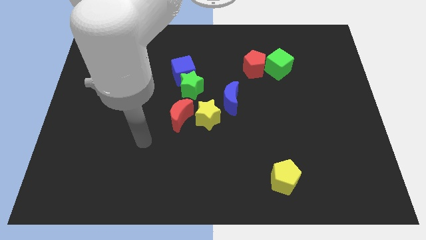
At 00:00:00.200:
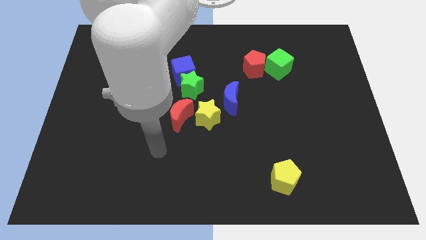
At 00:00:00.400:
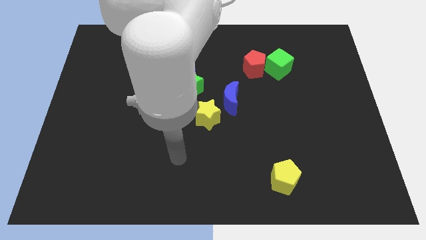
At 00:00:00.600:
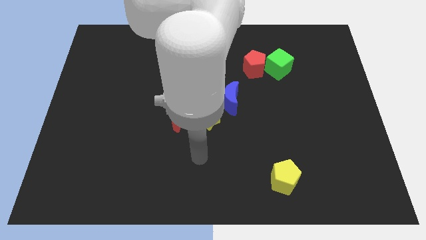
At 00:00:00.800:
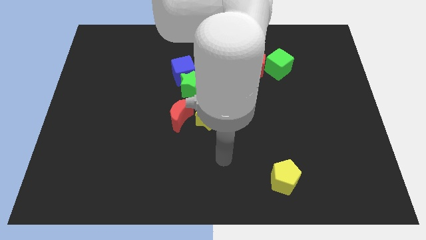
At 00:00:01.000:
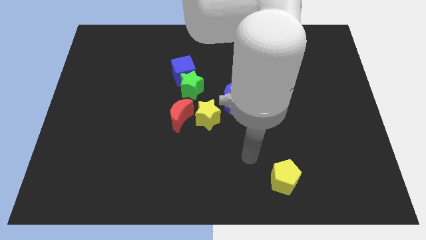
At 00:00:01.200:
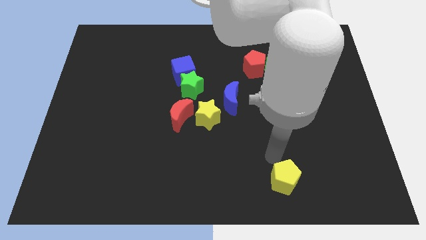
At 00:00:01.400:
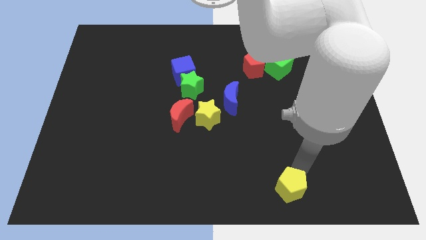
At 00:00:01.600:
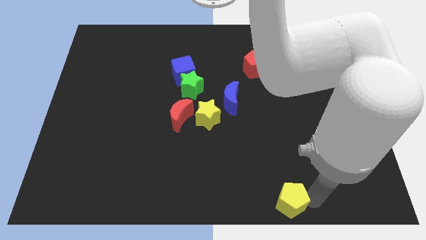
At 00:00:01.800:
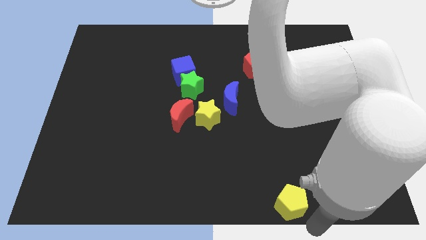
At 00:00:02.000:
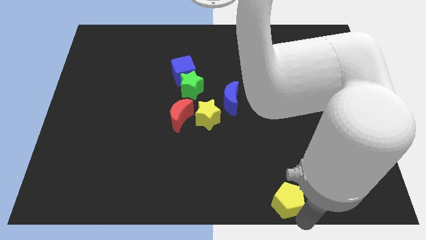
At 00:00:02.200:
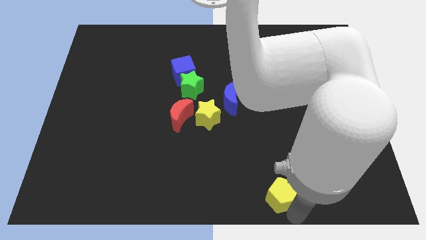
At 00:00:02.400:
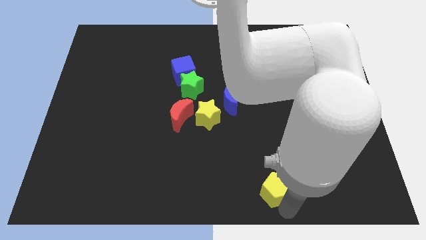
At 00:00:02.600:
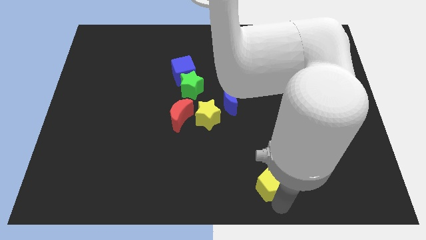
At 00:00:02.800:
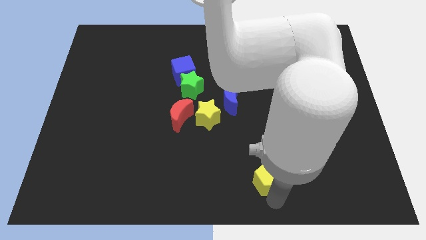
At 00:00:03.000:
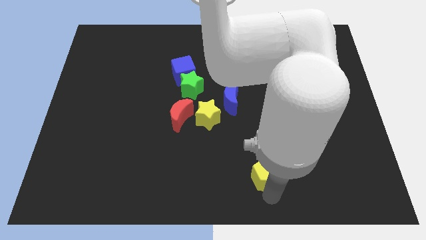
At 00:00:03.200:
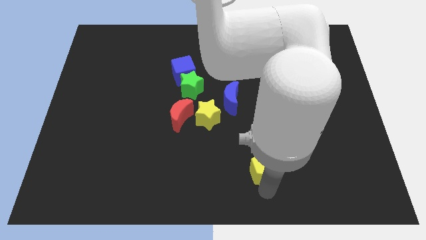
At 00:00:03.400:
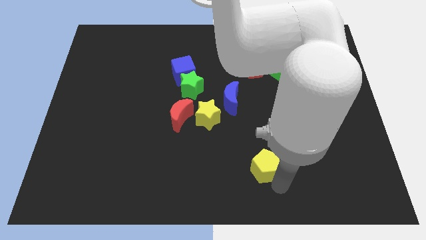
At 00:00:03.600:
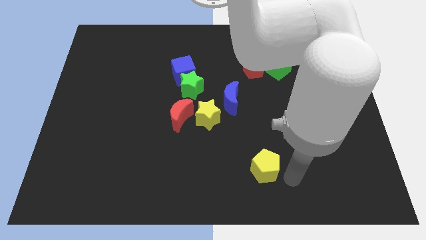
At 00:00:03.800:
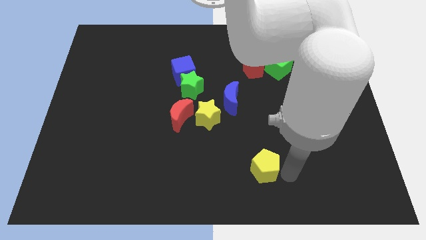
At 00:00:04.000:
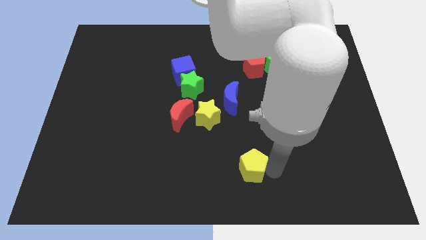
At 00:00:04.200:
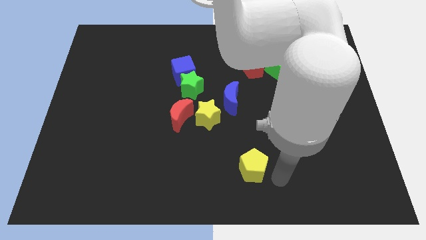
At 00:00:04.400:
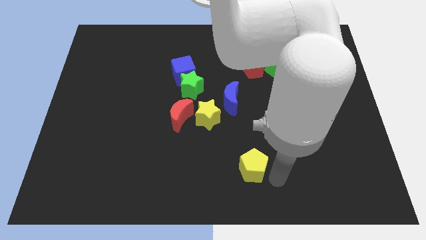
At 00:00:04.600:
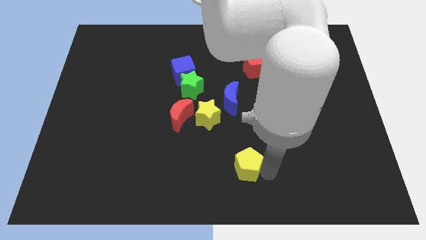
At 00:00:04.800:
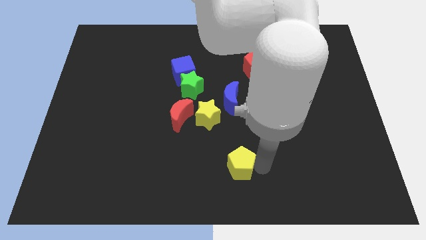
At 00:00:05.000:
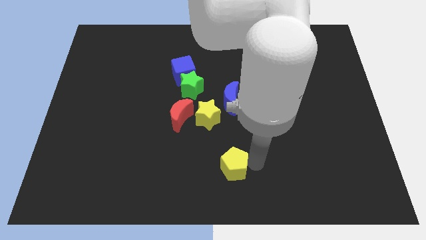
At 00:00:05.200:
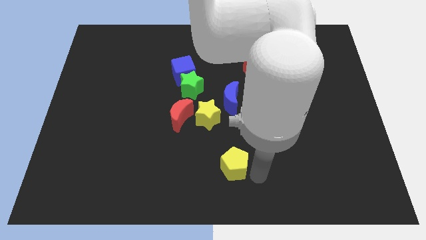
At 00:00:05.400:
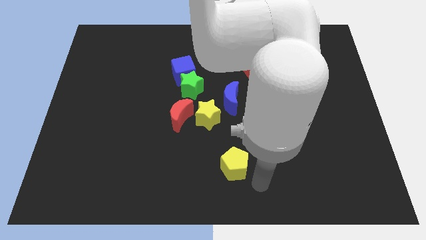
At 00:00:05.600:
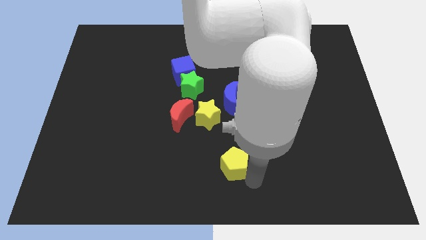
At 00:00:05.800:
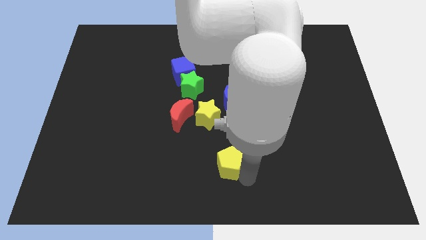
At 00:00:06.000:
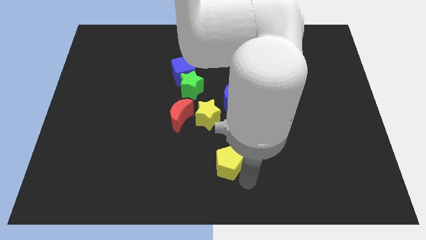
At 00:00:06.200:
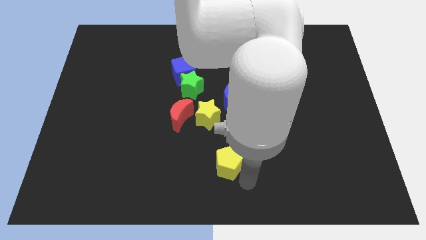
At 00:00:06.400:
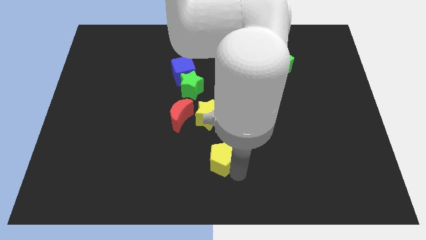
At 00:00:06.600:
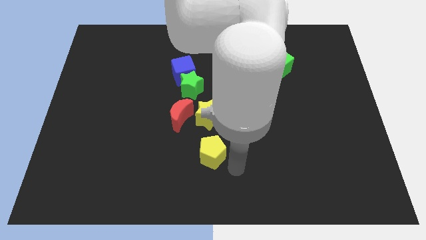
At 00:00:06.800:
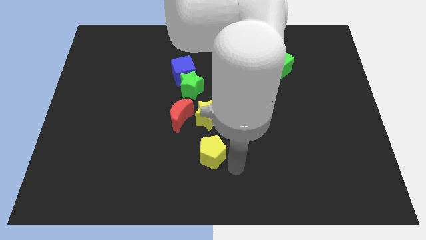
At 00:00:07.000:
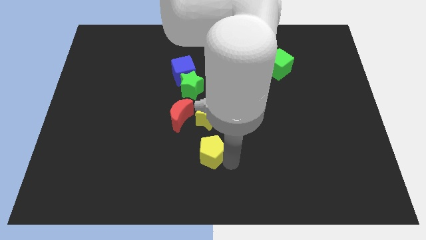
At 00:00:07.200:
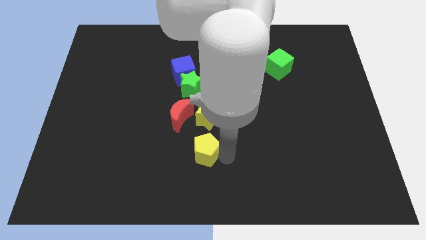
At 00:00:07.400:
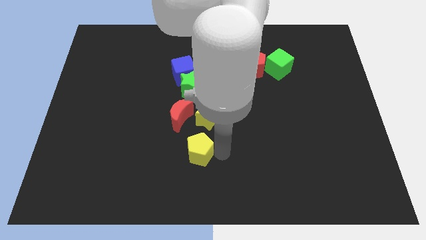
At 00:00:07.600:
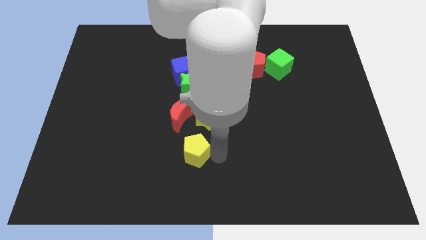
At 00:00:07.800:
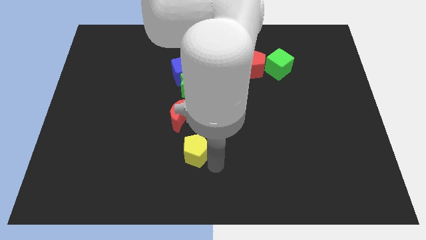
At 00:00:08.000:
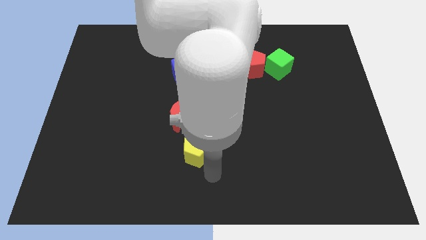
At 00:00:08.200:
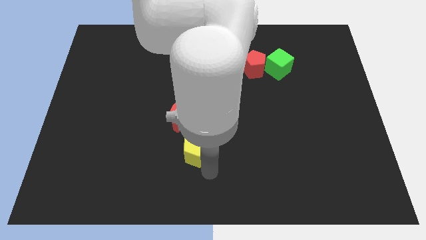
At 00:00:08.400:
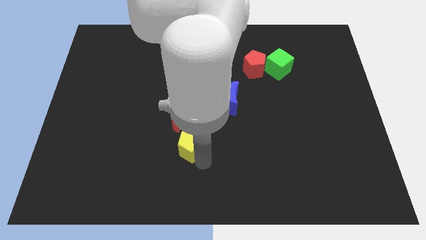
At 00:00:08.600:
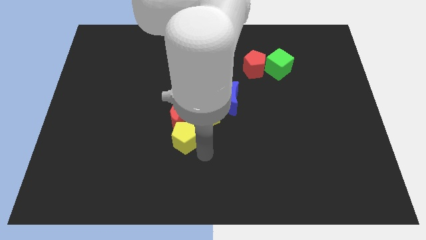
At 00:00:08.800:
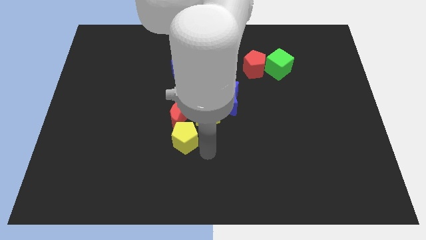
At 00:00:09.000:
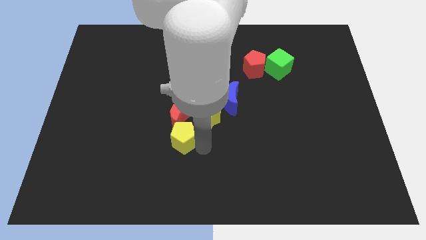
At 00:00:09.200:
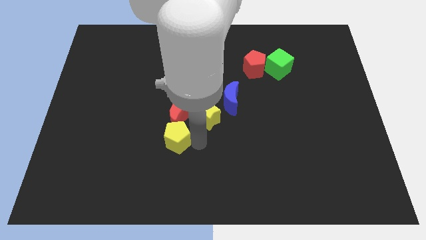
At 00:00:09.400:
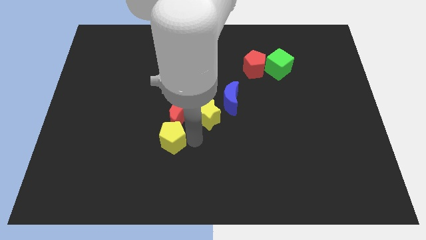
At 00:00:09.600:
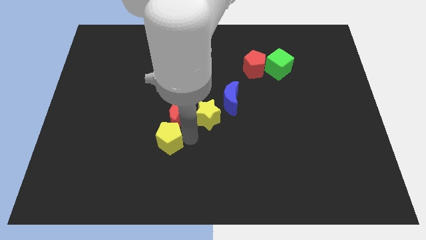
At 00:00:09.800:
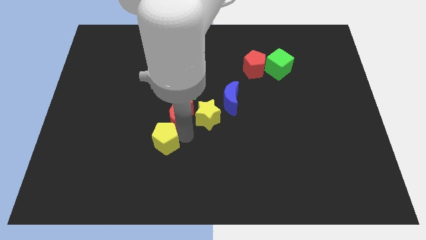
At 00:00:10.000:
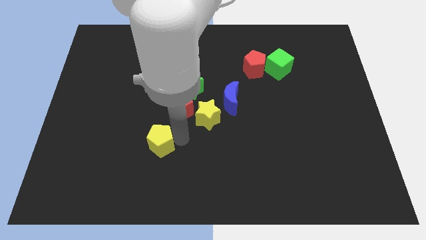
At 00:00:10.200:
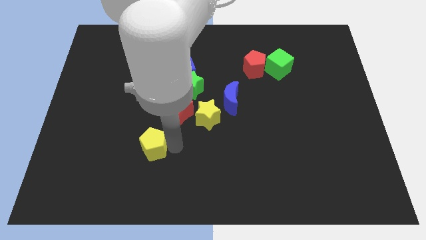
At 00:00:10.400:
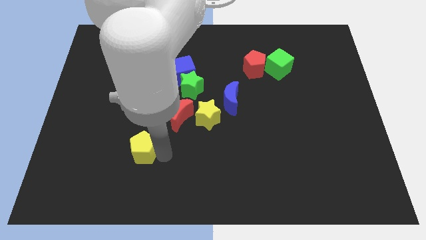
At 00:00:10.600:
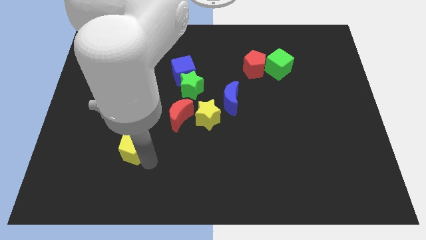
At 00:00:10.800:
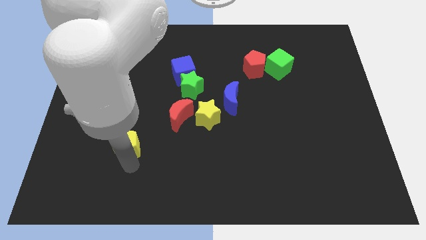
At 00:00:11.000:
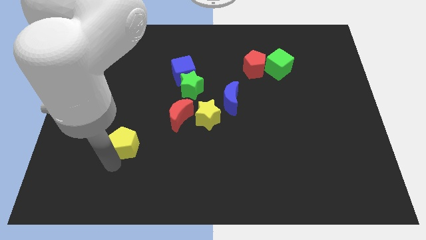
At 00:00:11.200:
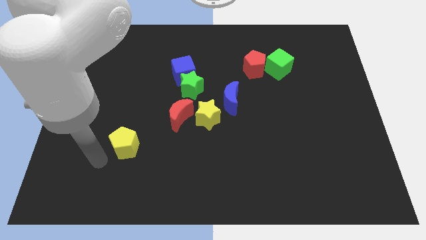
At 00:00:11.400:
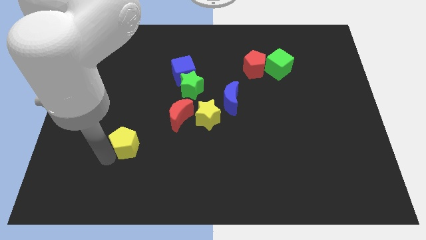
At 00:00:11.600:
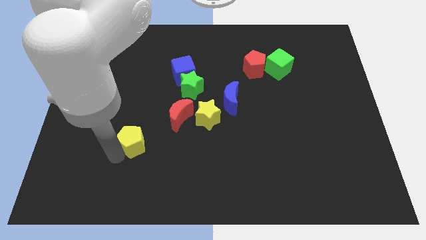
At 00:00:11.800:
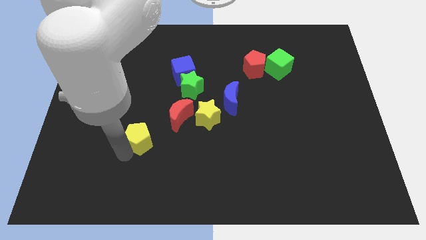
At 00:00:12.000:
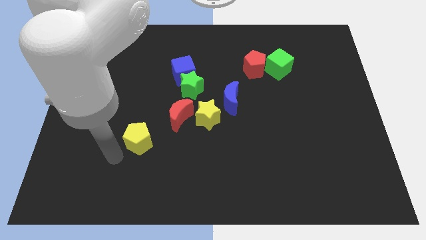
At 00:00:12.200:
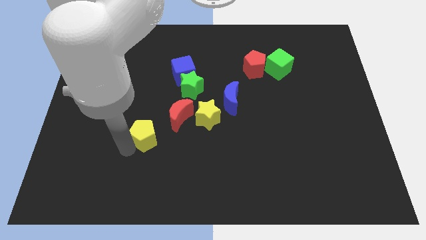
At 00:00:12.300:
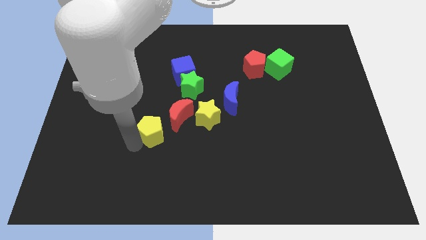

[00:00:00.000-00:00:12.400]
move the yellow pentagon to the left of the red moon

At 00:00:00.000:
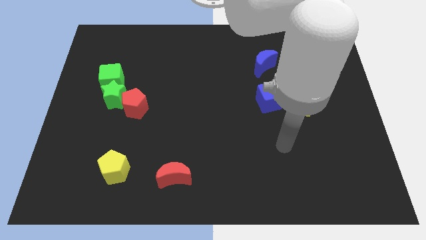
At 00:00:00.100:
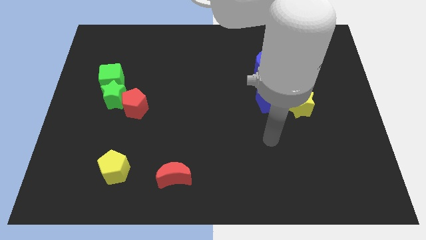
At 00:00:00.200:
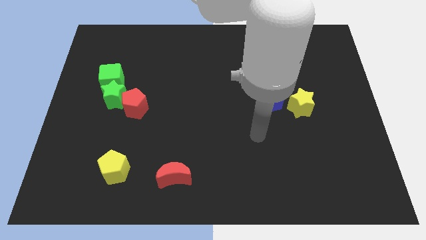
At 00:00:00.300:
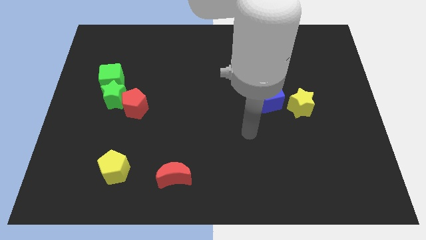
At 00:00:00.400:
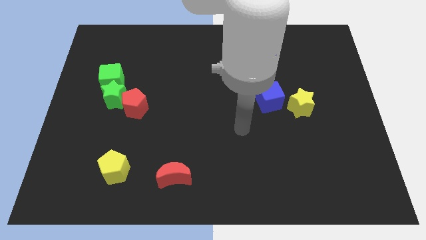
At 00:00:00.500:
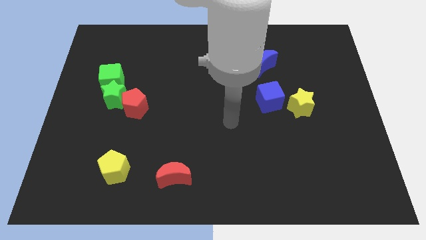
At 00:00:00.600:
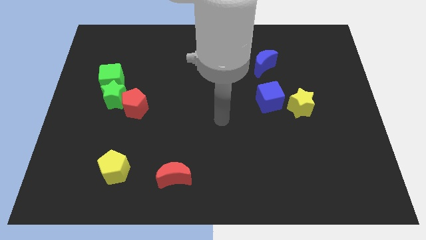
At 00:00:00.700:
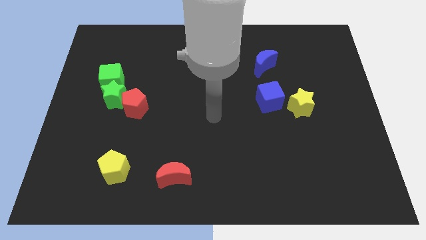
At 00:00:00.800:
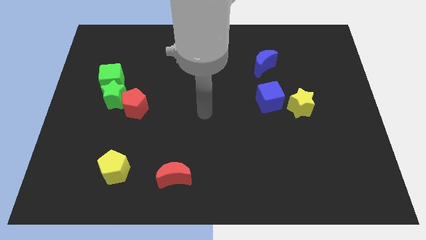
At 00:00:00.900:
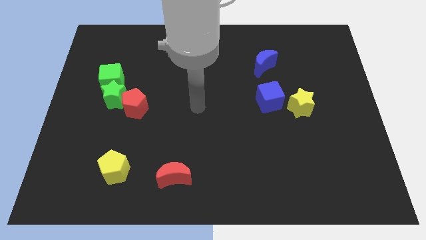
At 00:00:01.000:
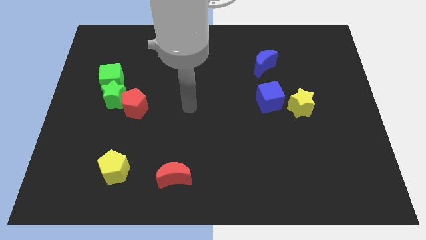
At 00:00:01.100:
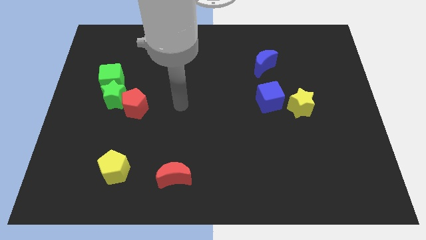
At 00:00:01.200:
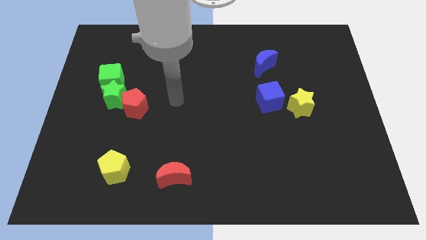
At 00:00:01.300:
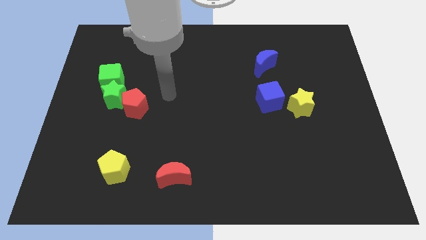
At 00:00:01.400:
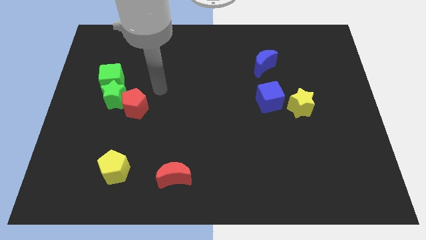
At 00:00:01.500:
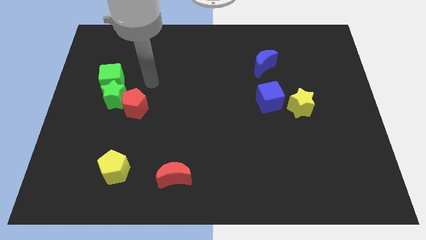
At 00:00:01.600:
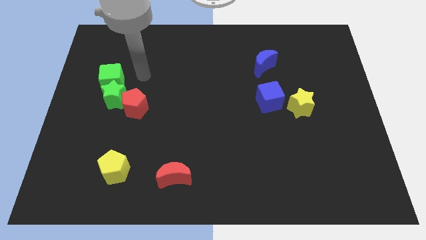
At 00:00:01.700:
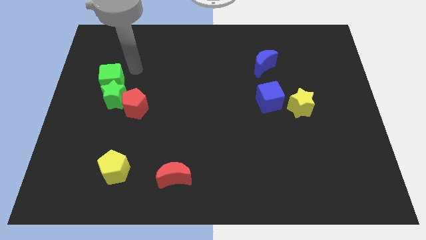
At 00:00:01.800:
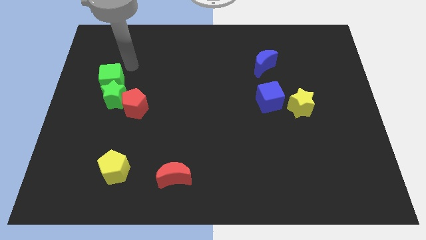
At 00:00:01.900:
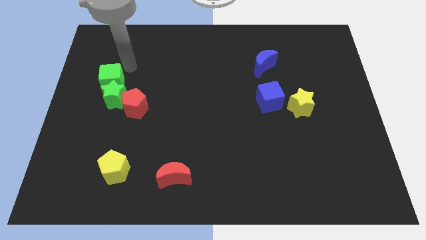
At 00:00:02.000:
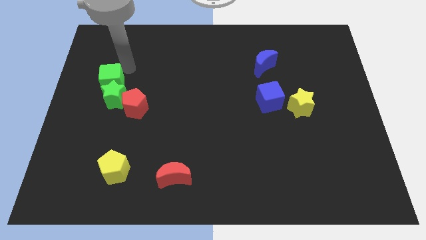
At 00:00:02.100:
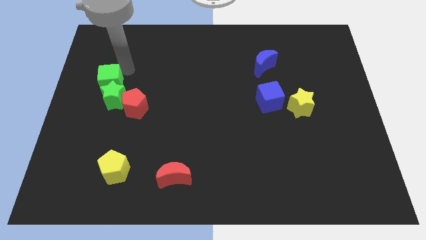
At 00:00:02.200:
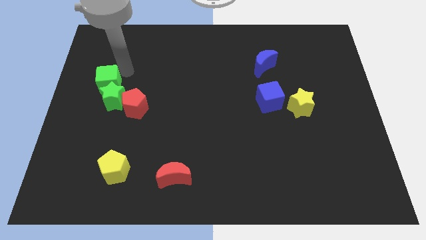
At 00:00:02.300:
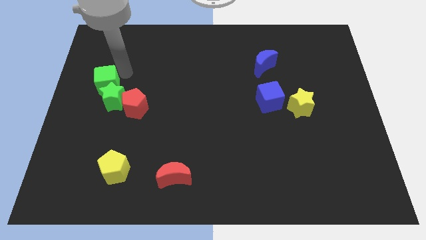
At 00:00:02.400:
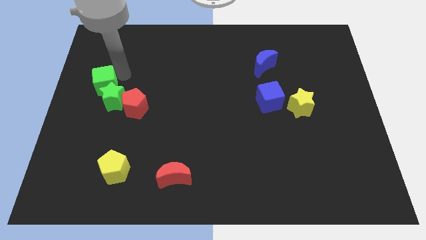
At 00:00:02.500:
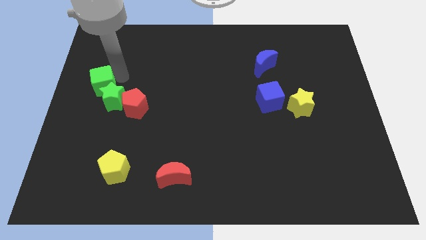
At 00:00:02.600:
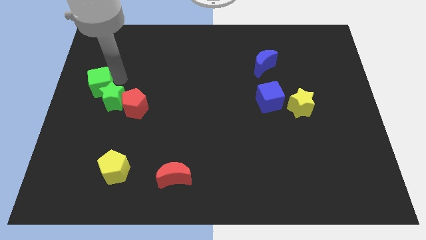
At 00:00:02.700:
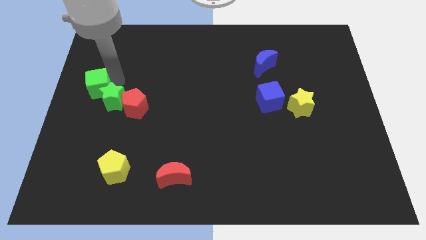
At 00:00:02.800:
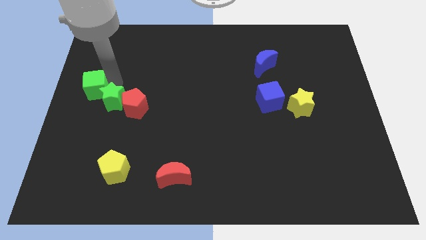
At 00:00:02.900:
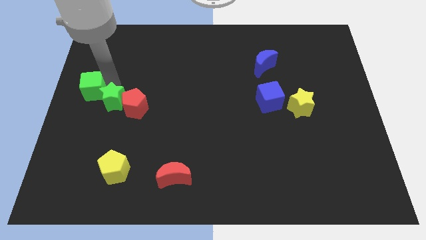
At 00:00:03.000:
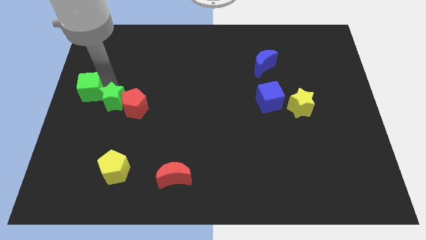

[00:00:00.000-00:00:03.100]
move the green cube left of the red pentagon
